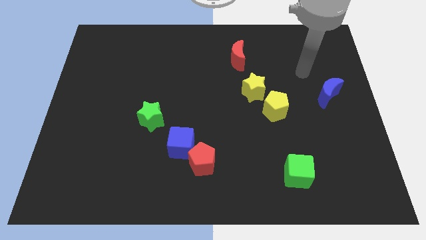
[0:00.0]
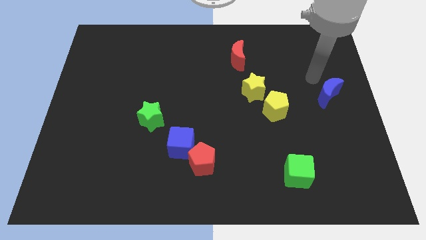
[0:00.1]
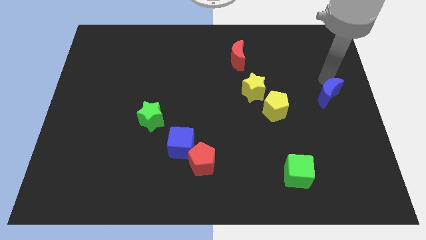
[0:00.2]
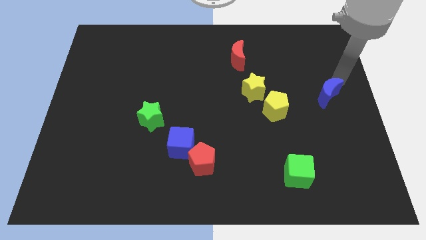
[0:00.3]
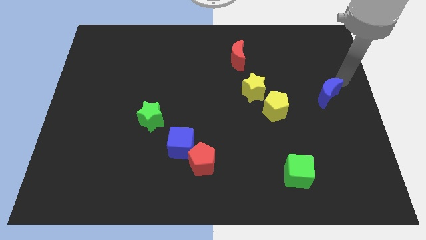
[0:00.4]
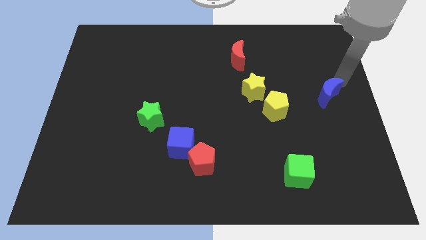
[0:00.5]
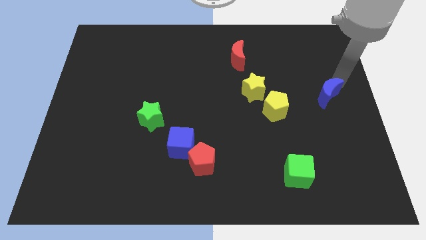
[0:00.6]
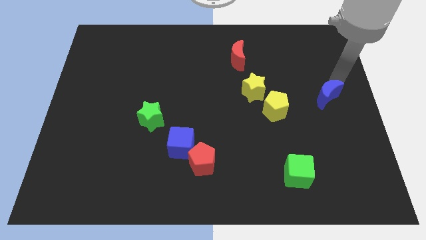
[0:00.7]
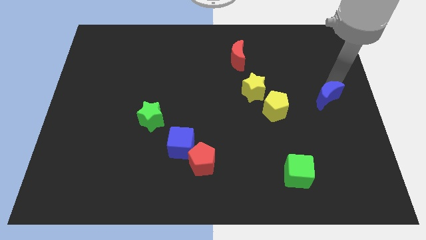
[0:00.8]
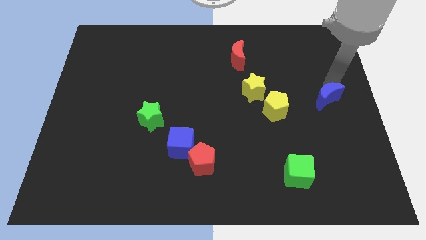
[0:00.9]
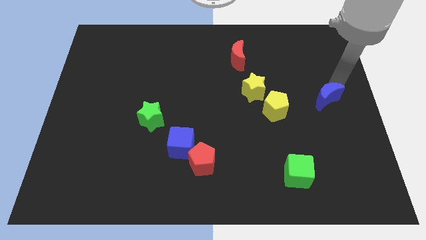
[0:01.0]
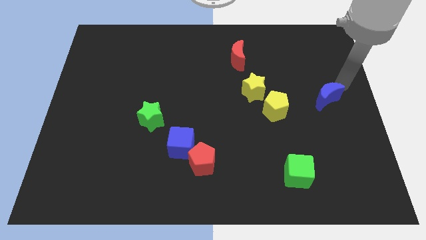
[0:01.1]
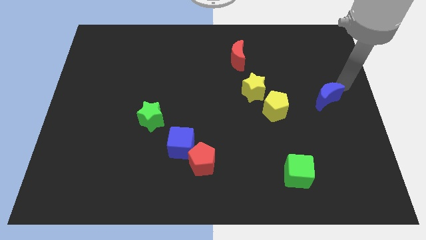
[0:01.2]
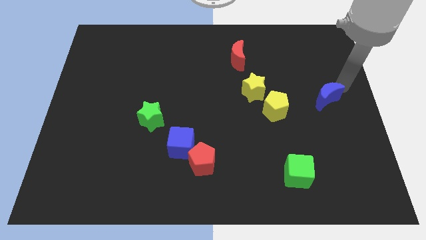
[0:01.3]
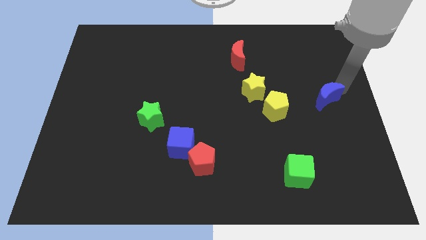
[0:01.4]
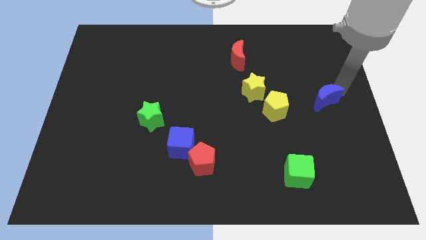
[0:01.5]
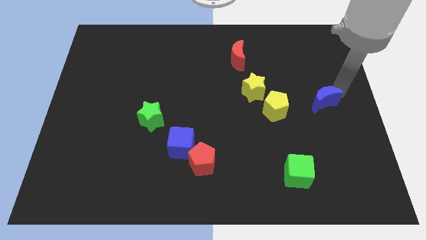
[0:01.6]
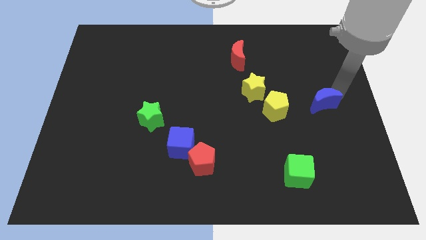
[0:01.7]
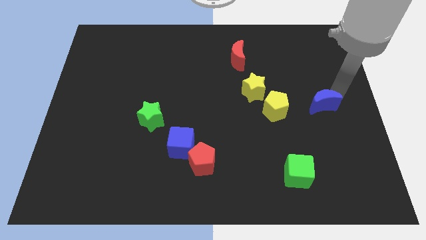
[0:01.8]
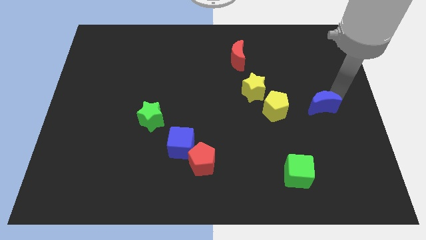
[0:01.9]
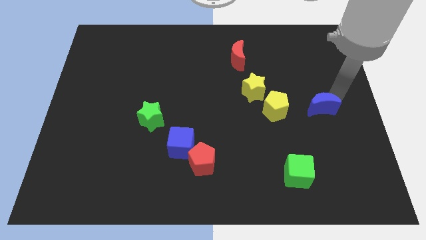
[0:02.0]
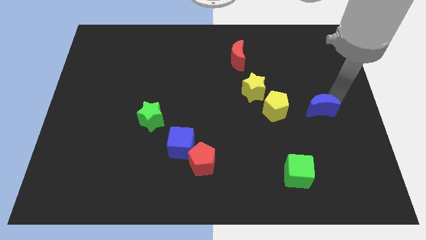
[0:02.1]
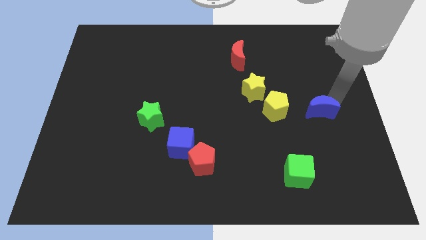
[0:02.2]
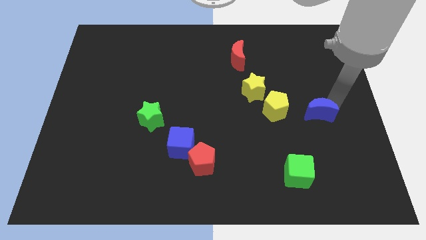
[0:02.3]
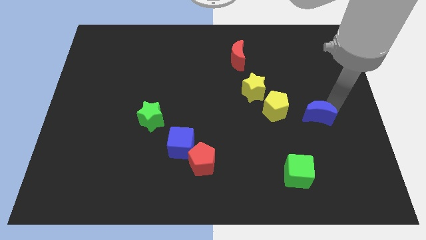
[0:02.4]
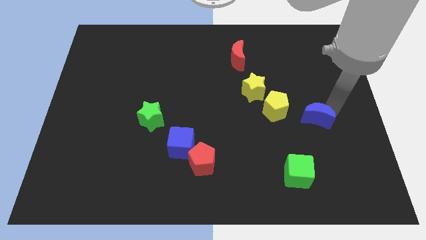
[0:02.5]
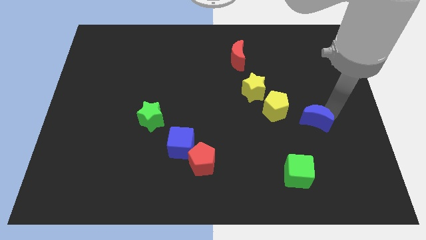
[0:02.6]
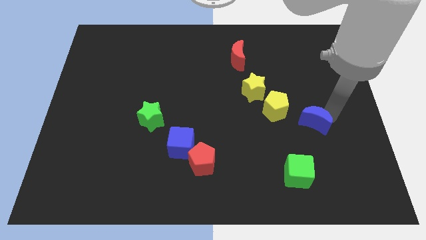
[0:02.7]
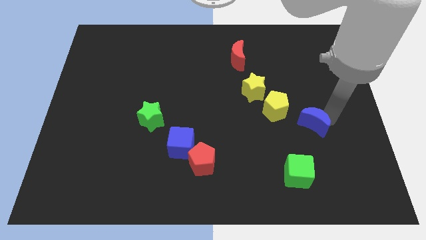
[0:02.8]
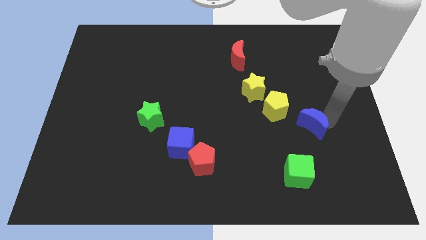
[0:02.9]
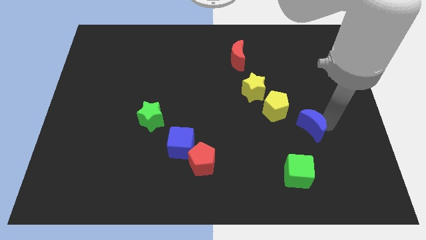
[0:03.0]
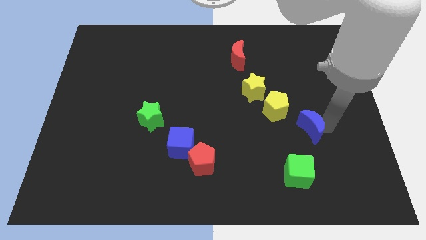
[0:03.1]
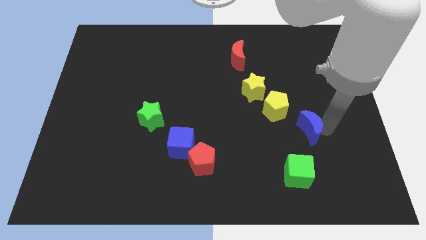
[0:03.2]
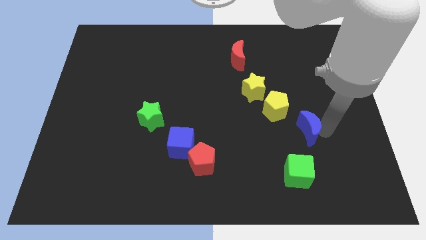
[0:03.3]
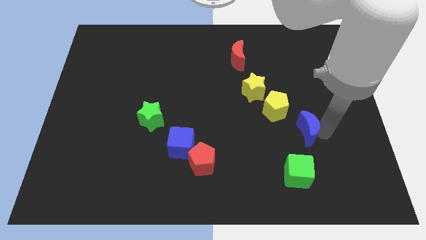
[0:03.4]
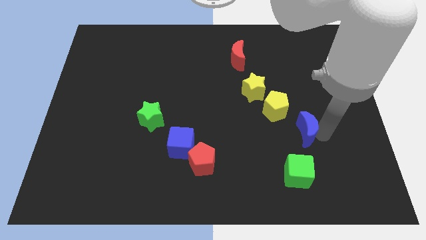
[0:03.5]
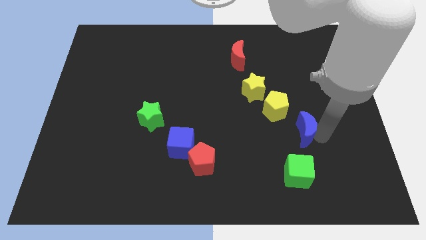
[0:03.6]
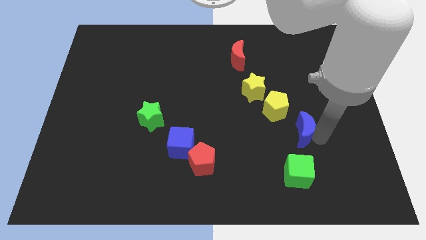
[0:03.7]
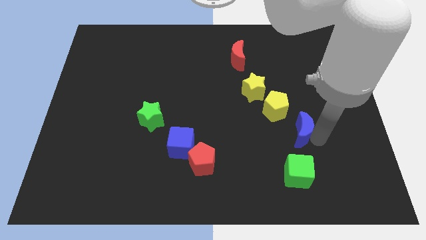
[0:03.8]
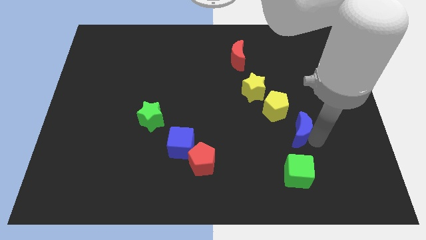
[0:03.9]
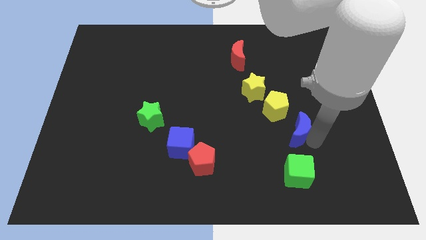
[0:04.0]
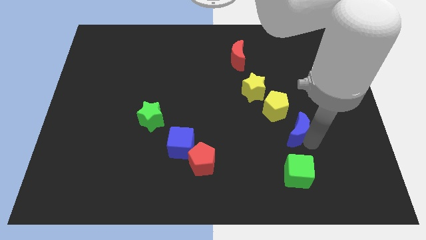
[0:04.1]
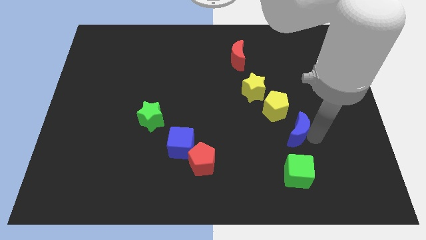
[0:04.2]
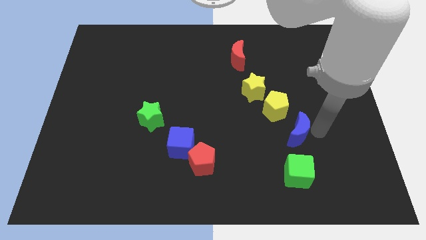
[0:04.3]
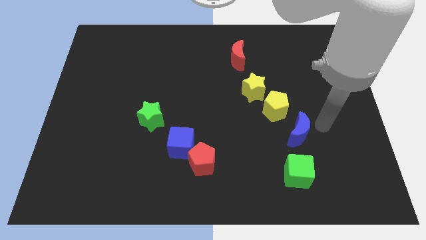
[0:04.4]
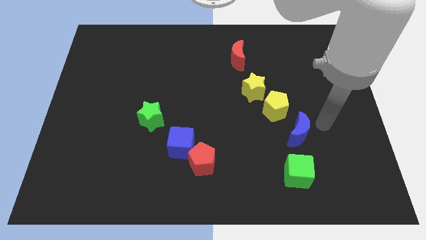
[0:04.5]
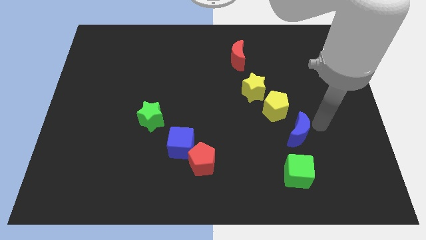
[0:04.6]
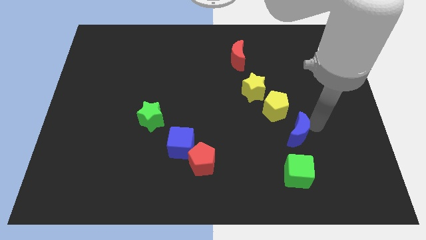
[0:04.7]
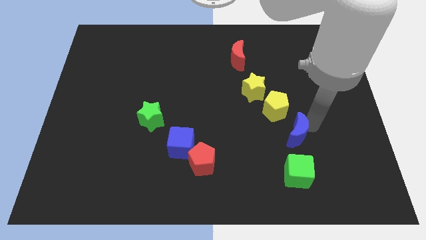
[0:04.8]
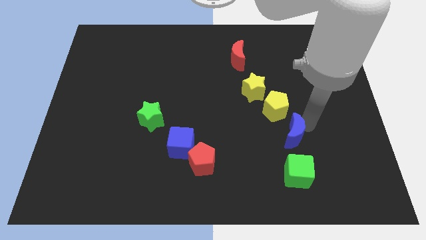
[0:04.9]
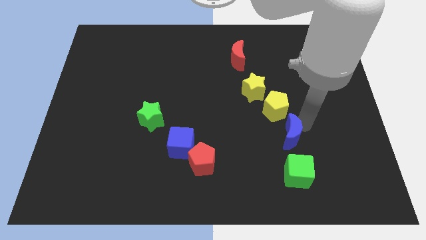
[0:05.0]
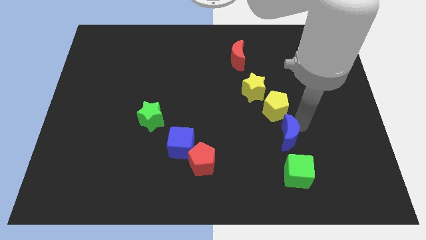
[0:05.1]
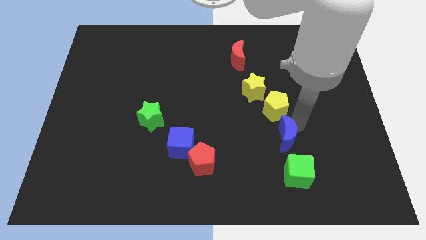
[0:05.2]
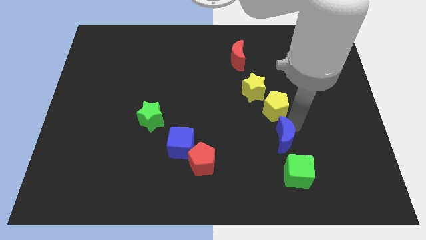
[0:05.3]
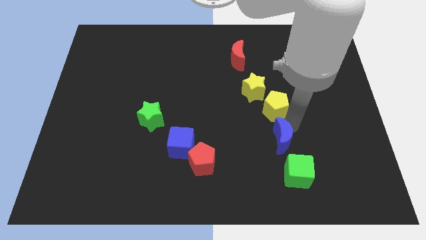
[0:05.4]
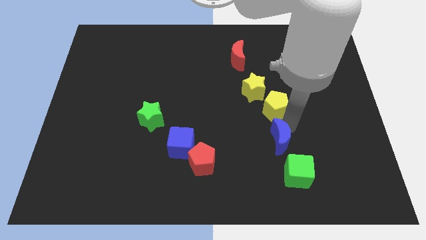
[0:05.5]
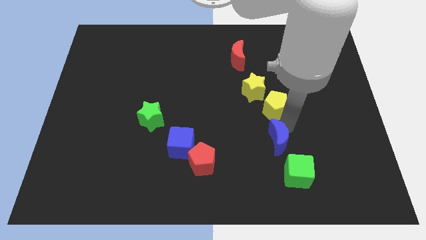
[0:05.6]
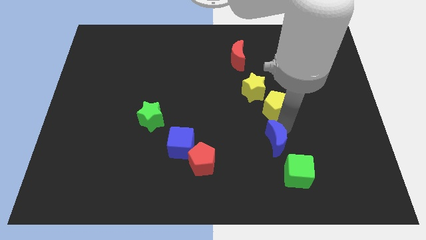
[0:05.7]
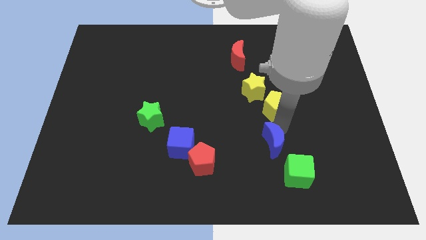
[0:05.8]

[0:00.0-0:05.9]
push the blue moon diagonally down and left

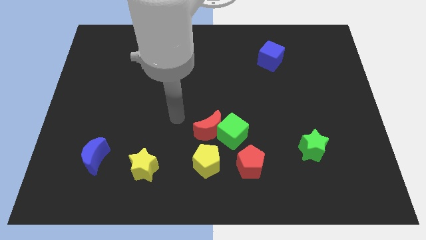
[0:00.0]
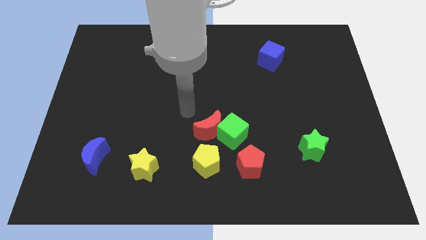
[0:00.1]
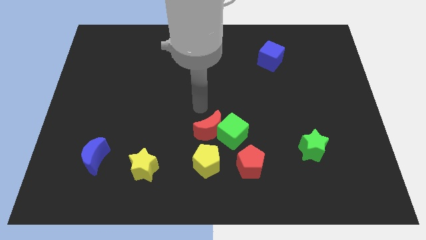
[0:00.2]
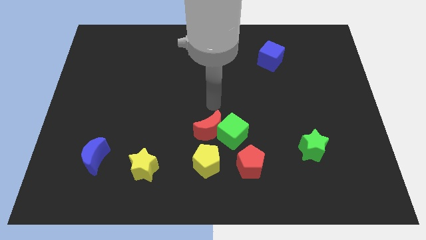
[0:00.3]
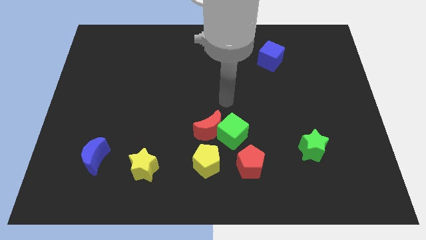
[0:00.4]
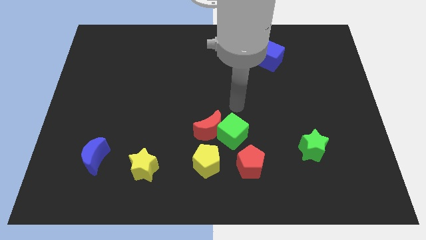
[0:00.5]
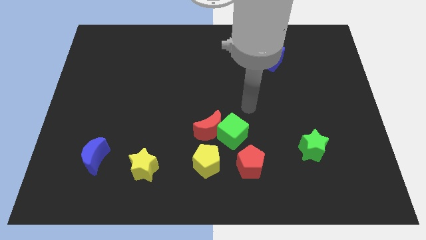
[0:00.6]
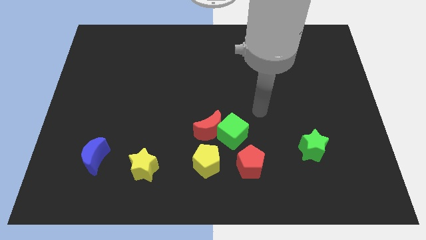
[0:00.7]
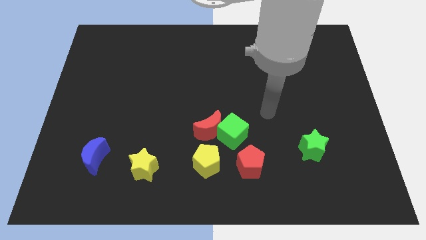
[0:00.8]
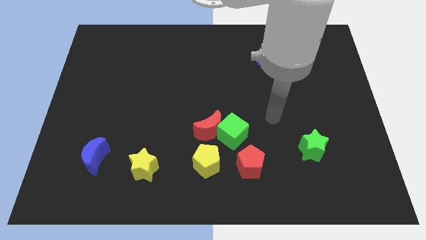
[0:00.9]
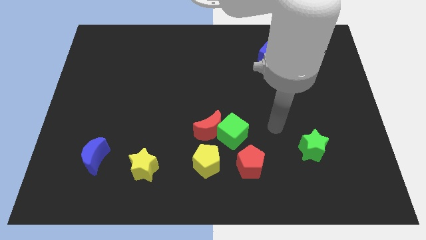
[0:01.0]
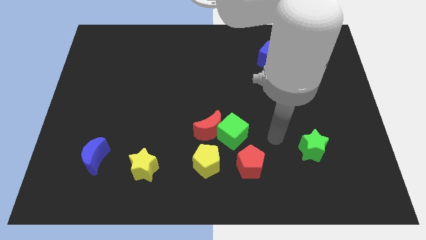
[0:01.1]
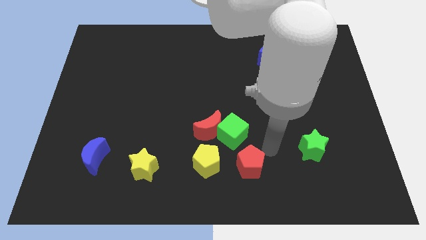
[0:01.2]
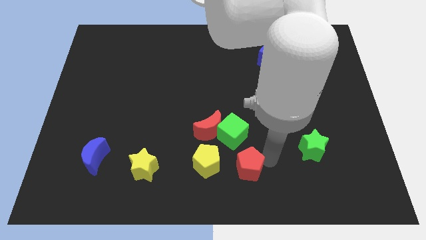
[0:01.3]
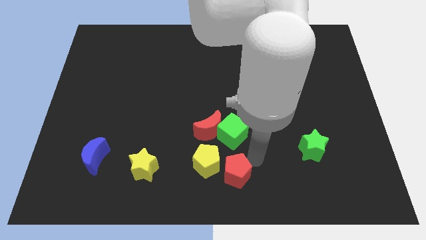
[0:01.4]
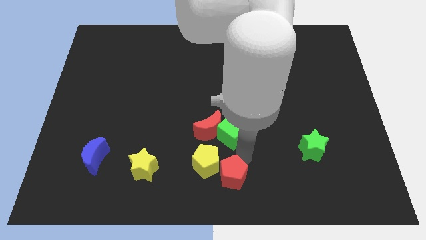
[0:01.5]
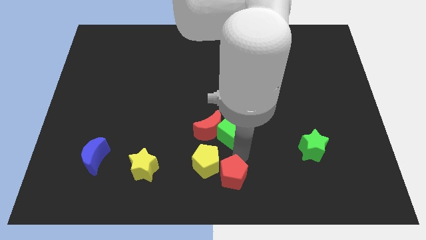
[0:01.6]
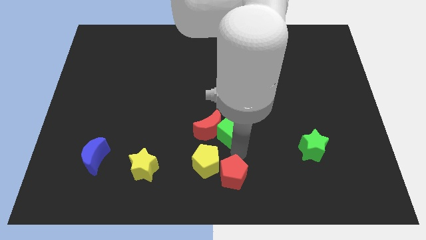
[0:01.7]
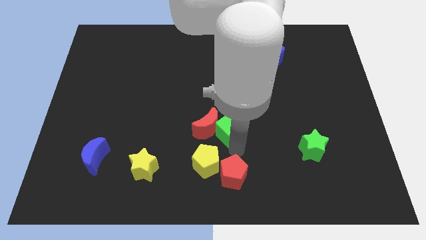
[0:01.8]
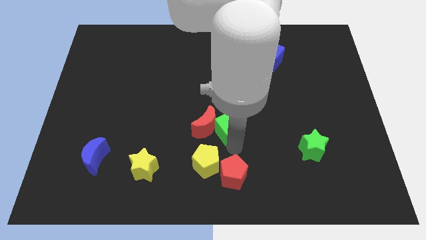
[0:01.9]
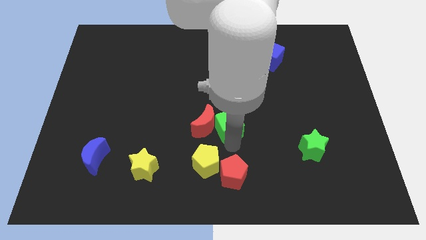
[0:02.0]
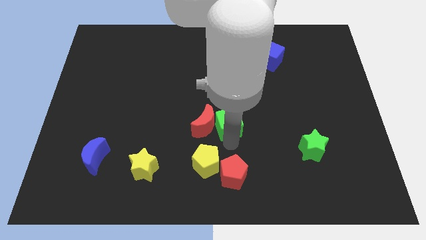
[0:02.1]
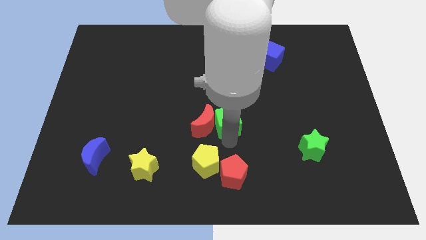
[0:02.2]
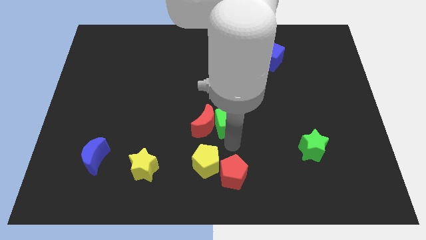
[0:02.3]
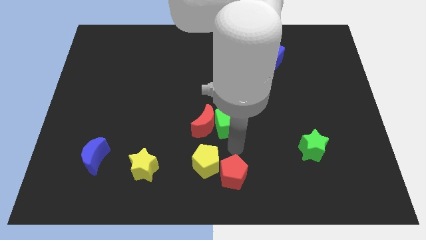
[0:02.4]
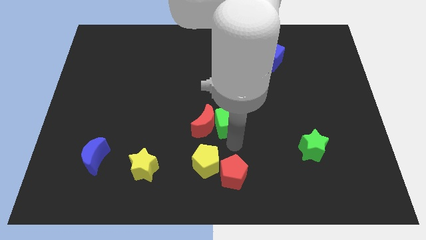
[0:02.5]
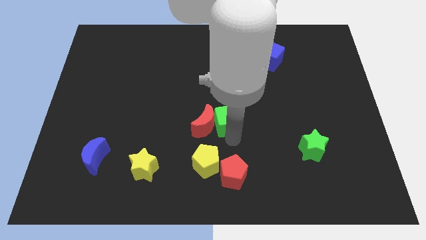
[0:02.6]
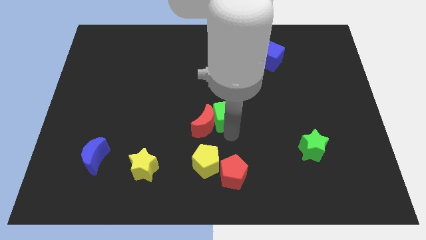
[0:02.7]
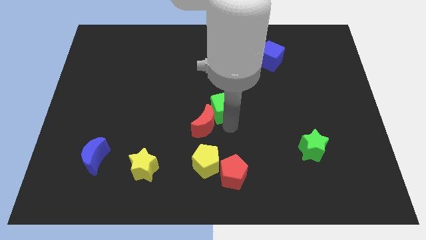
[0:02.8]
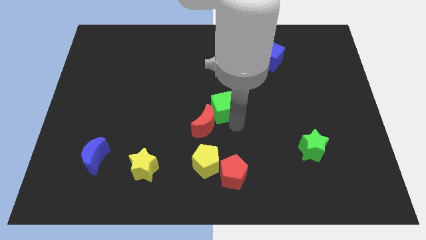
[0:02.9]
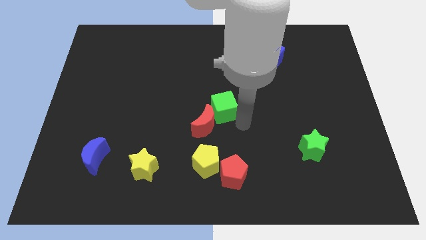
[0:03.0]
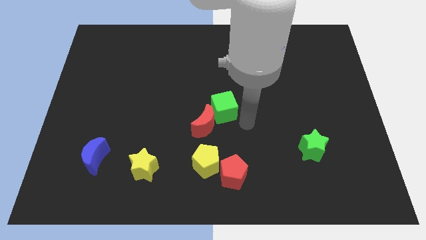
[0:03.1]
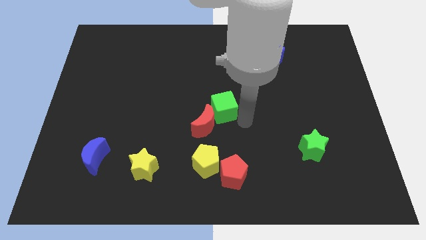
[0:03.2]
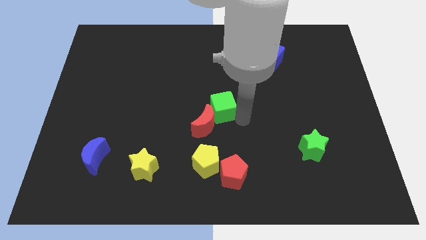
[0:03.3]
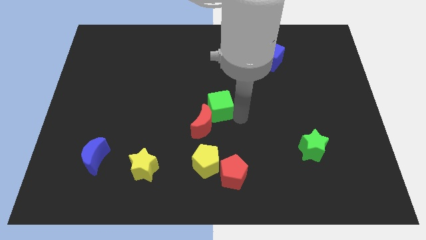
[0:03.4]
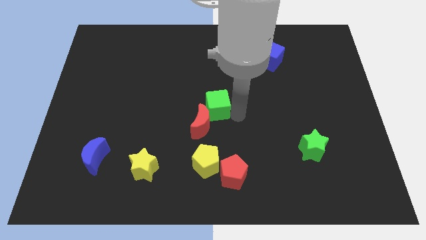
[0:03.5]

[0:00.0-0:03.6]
slightly move the green cube diagonally up and to the left
